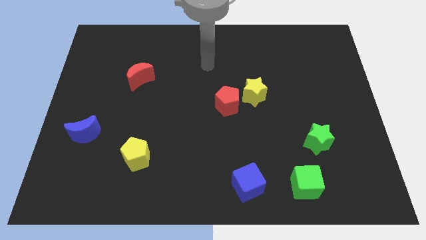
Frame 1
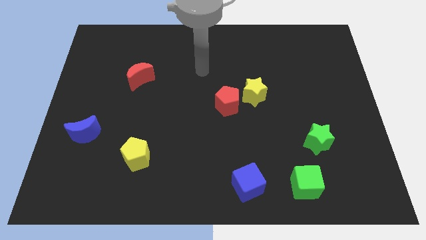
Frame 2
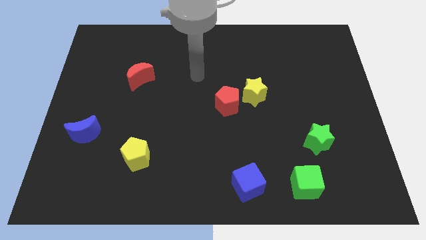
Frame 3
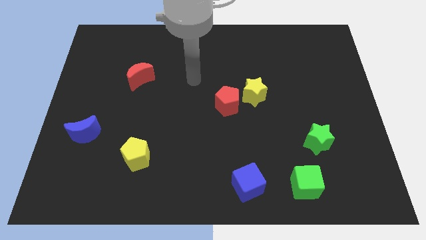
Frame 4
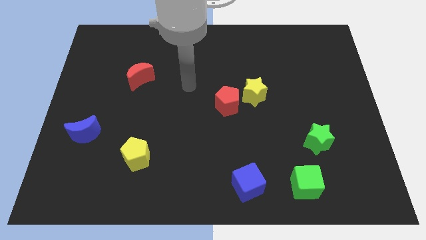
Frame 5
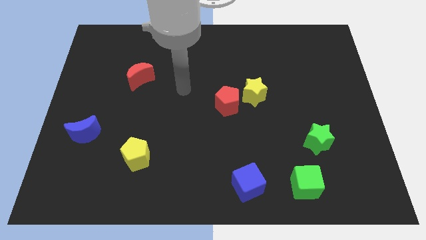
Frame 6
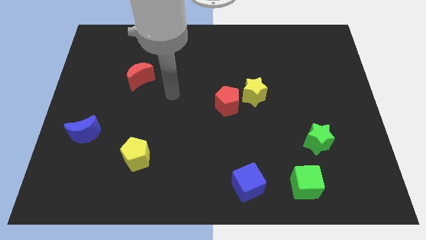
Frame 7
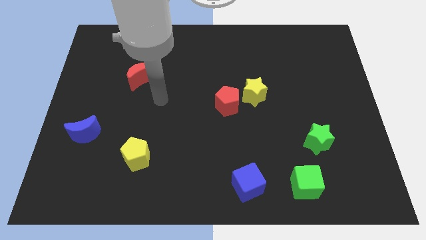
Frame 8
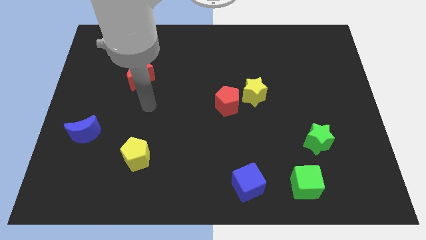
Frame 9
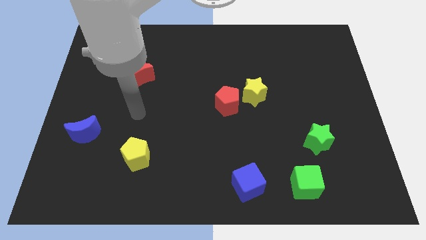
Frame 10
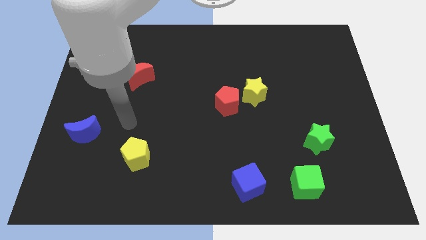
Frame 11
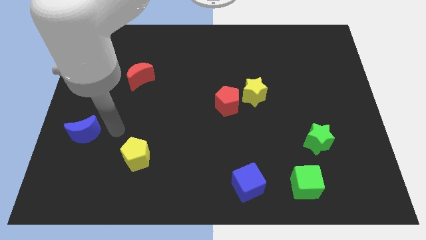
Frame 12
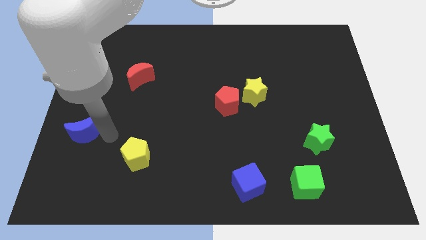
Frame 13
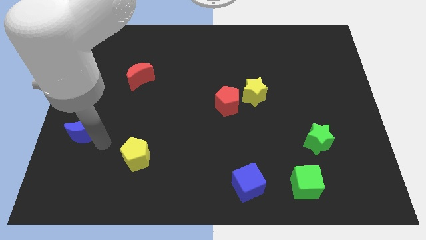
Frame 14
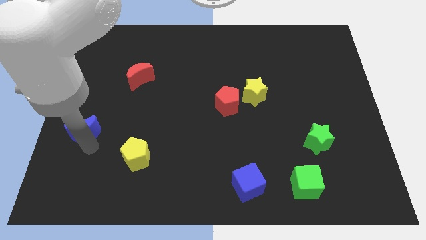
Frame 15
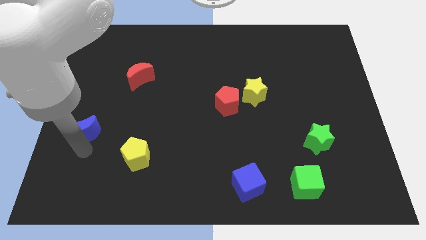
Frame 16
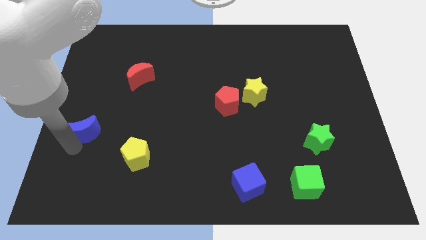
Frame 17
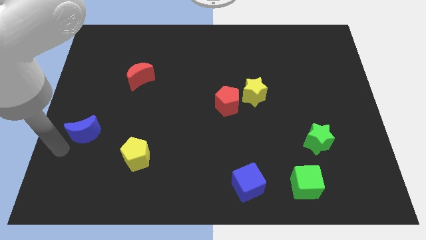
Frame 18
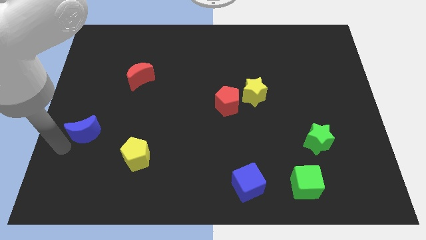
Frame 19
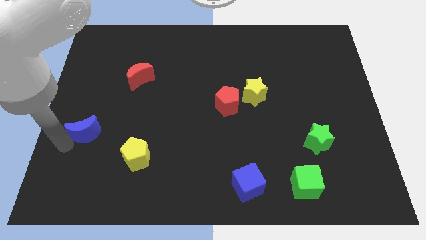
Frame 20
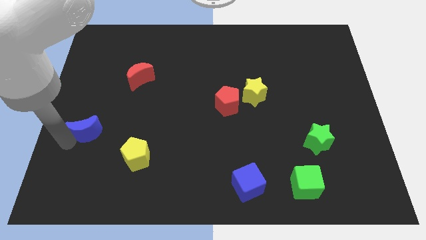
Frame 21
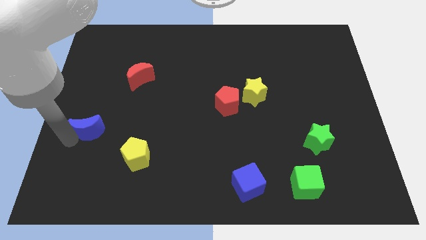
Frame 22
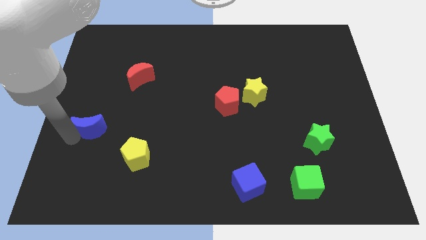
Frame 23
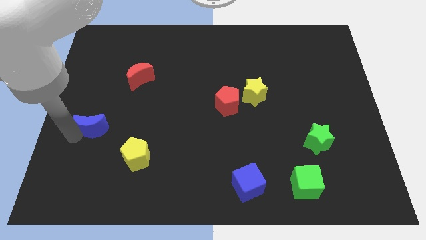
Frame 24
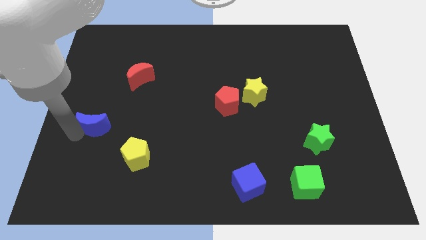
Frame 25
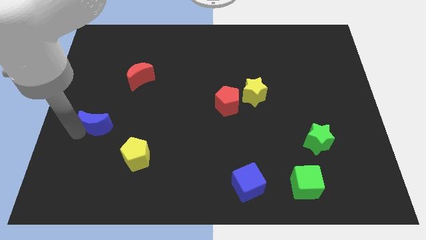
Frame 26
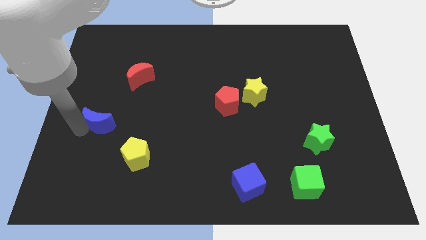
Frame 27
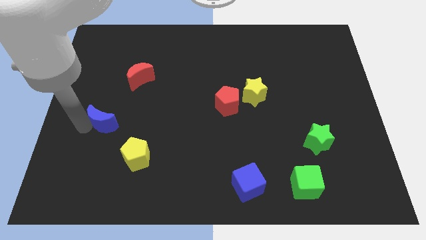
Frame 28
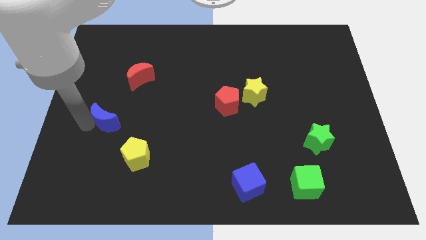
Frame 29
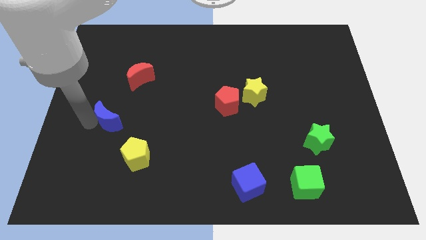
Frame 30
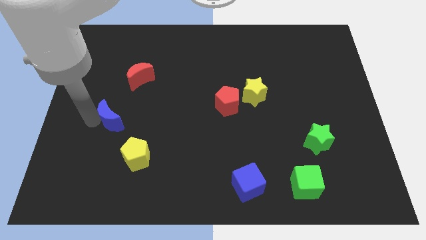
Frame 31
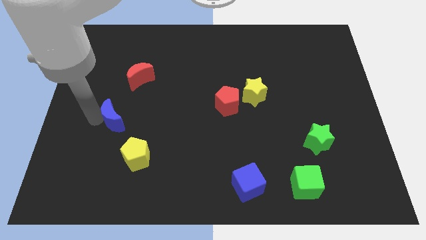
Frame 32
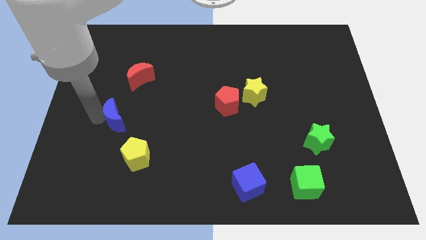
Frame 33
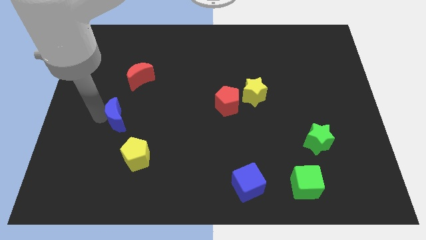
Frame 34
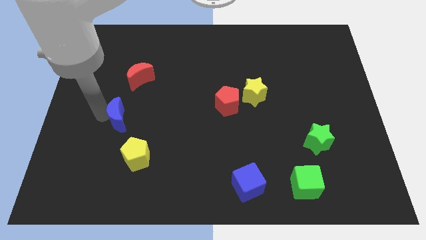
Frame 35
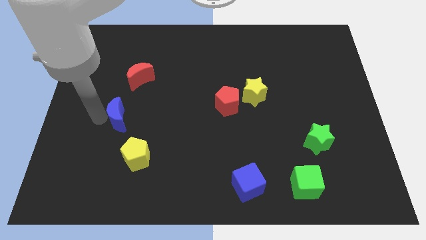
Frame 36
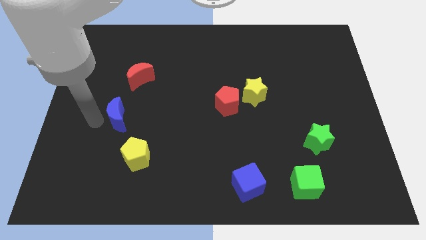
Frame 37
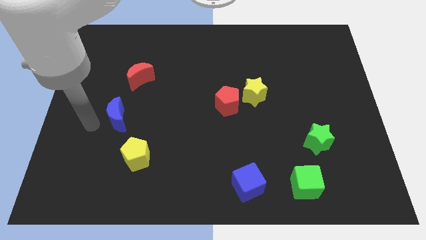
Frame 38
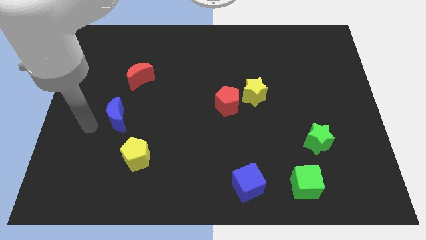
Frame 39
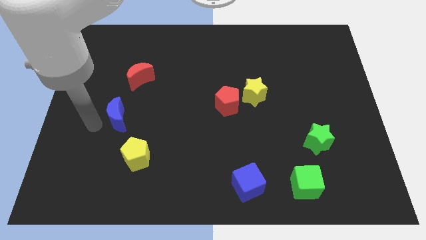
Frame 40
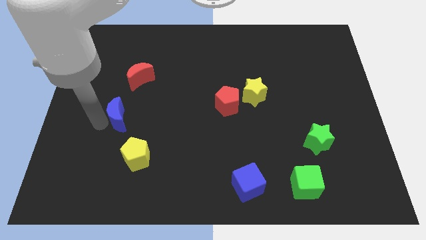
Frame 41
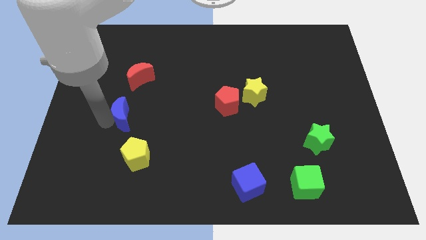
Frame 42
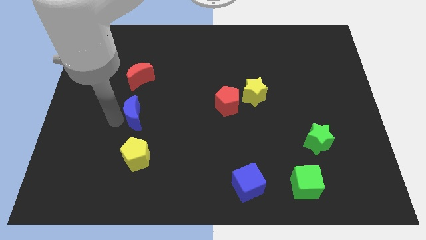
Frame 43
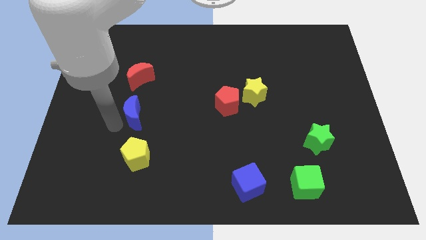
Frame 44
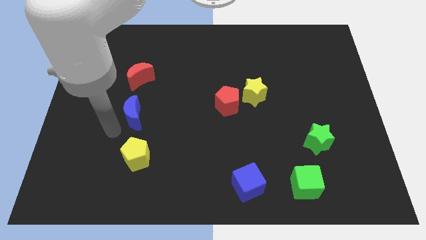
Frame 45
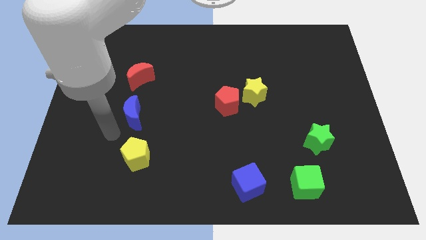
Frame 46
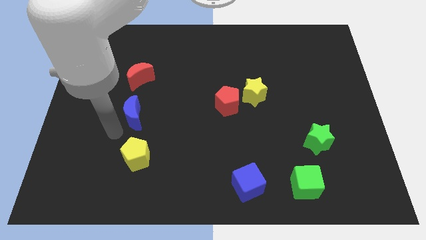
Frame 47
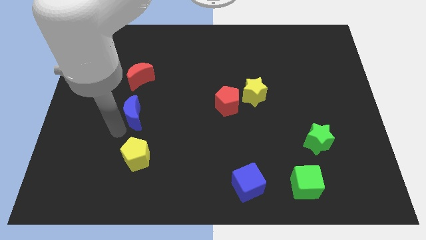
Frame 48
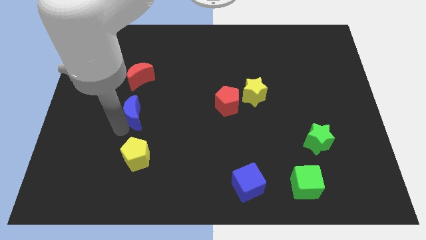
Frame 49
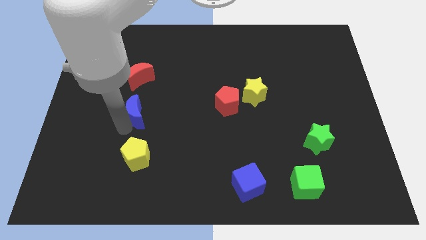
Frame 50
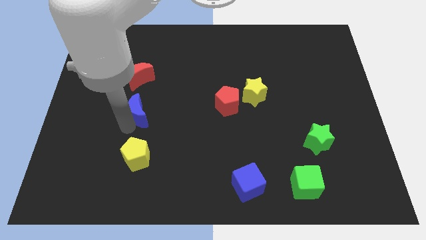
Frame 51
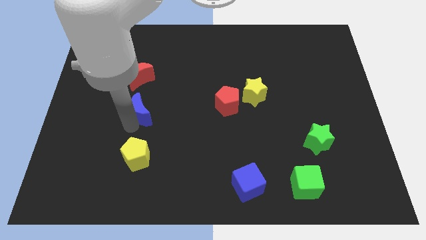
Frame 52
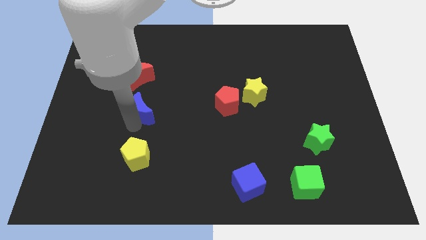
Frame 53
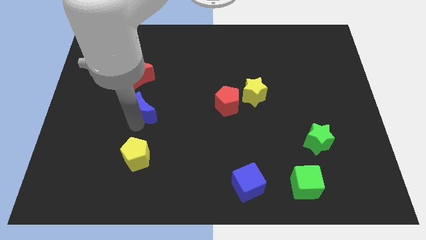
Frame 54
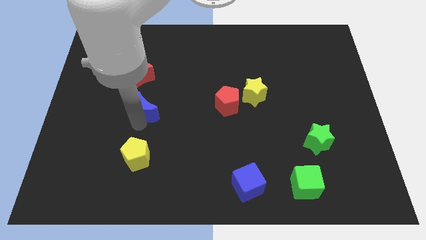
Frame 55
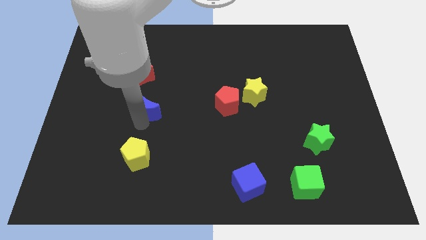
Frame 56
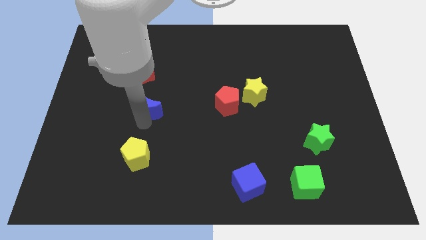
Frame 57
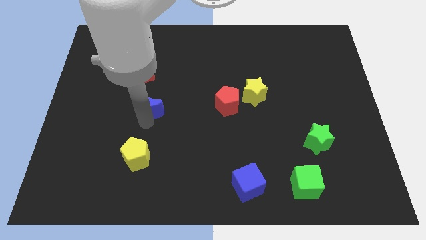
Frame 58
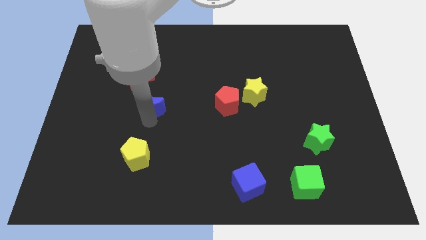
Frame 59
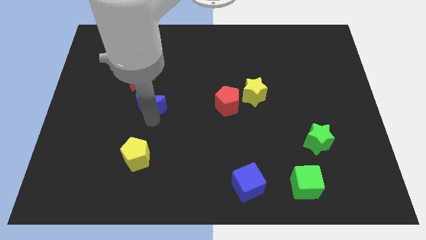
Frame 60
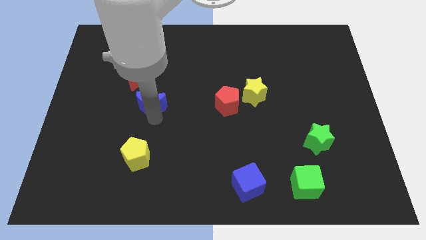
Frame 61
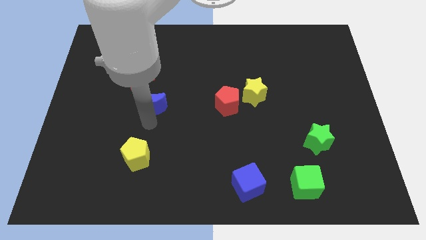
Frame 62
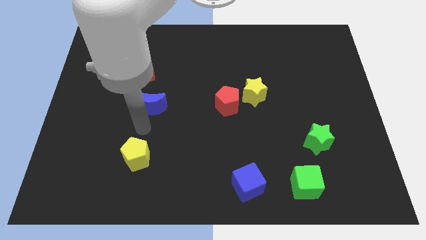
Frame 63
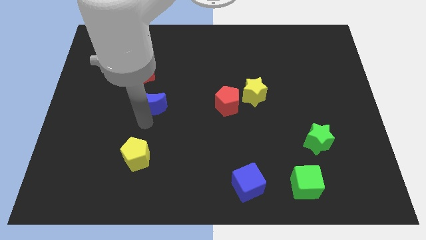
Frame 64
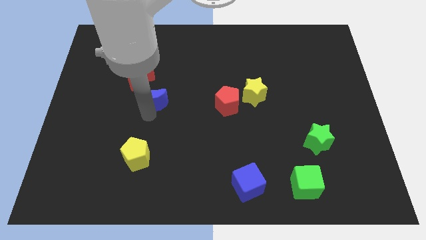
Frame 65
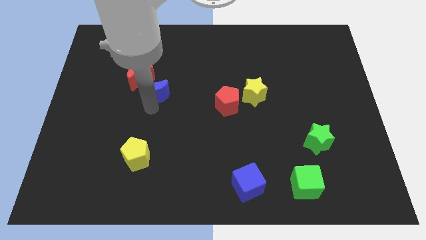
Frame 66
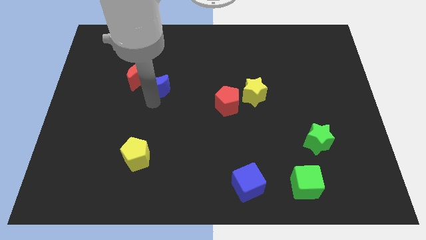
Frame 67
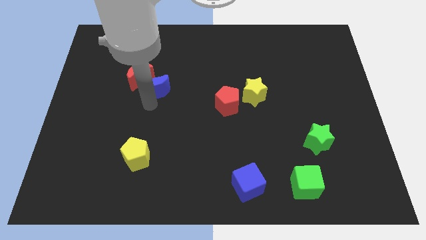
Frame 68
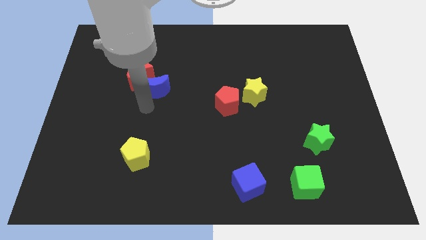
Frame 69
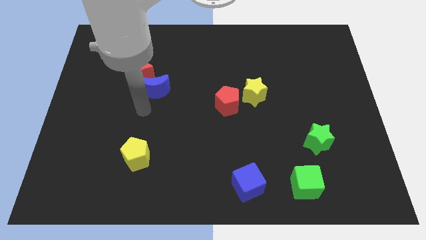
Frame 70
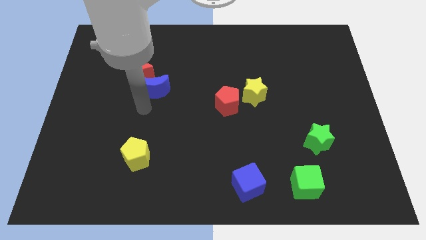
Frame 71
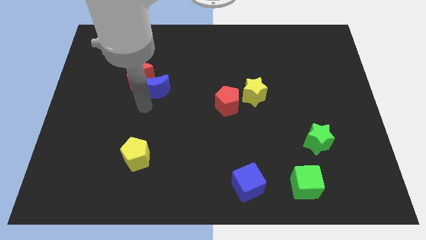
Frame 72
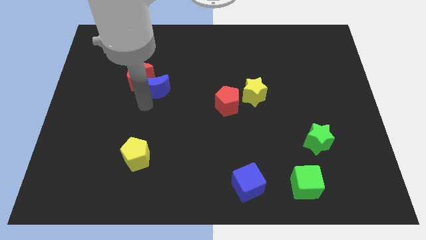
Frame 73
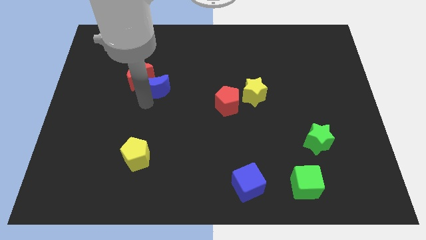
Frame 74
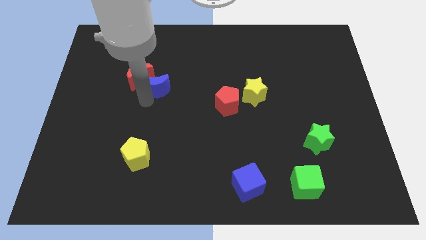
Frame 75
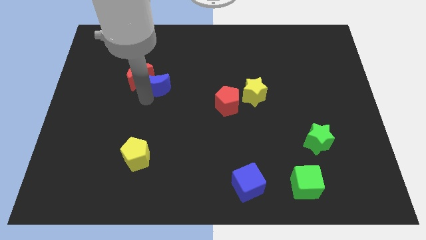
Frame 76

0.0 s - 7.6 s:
slide the blue moon upwards and to the right diagonally
